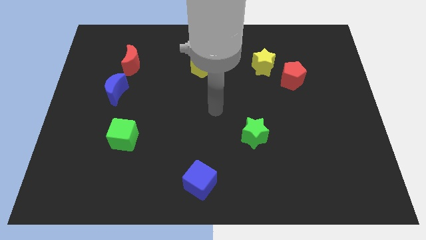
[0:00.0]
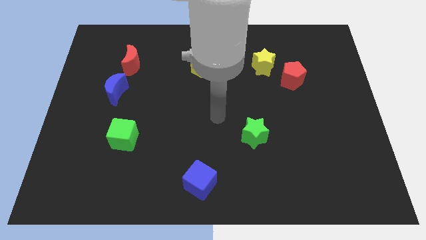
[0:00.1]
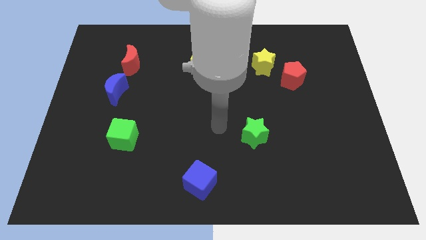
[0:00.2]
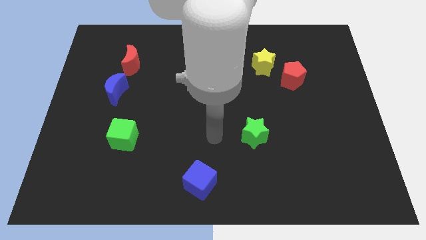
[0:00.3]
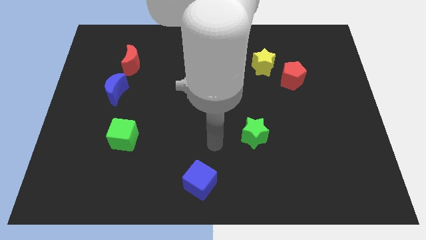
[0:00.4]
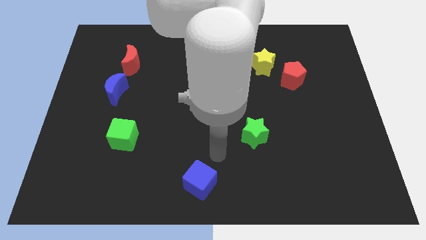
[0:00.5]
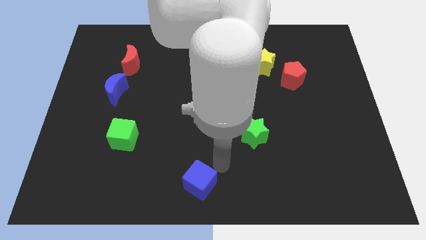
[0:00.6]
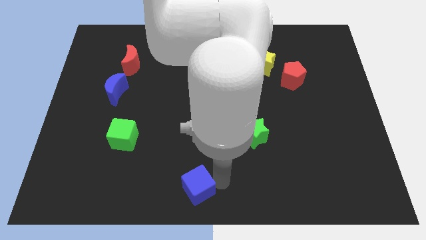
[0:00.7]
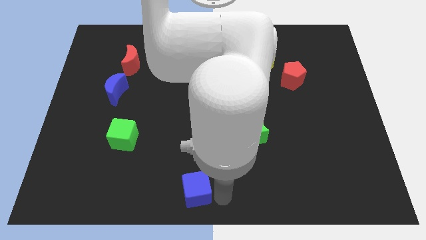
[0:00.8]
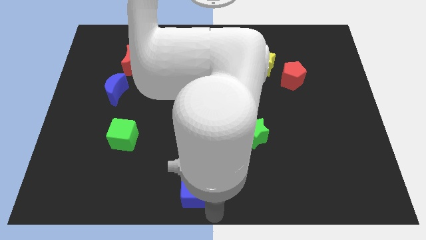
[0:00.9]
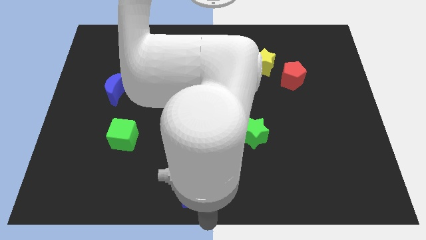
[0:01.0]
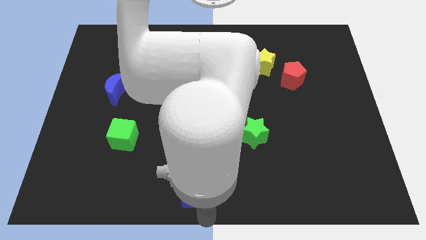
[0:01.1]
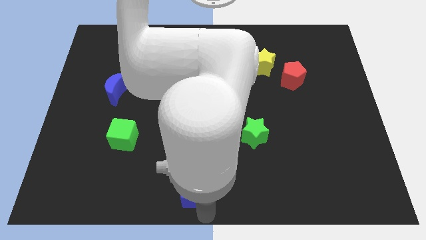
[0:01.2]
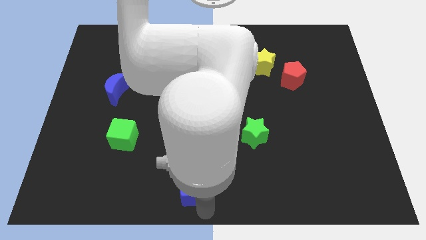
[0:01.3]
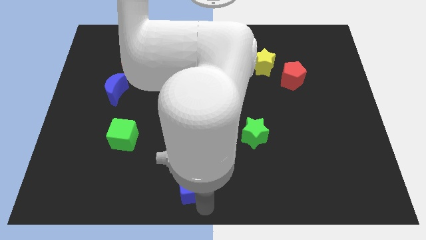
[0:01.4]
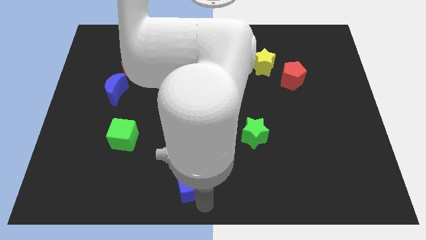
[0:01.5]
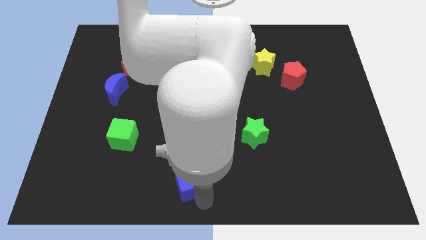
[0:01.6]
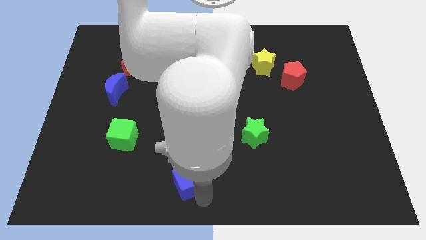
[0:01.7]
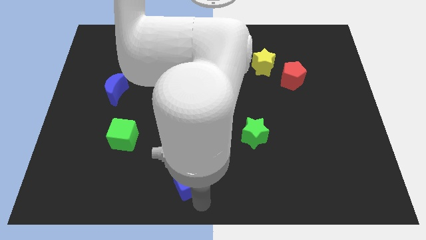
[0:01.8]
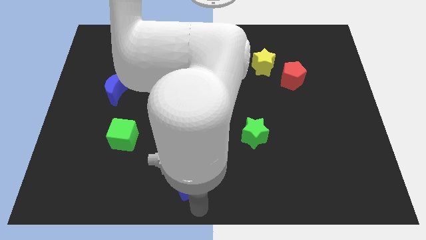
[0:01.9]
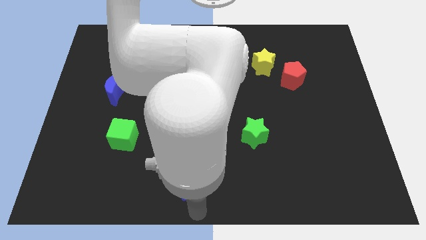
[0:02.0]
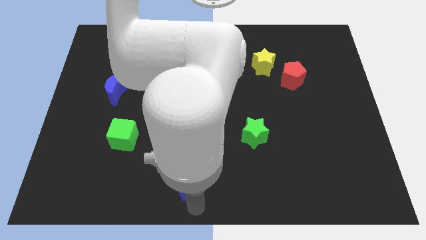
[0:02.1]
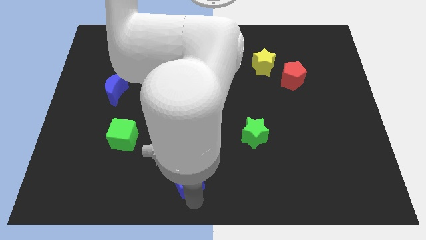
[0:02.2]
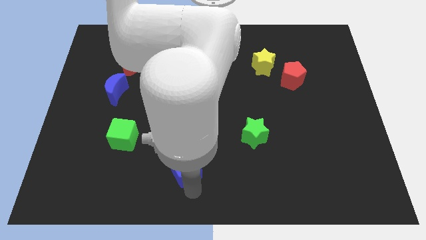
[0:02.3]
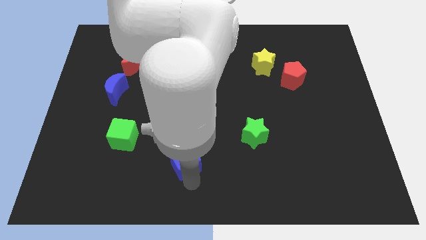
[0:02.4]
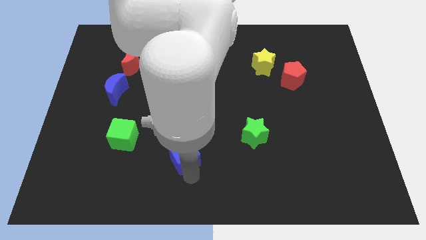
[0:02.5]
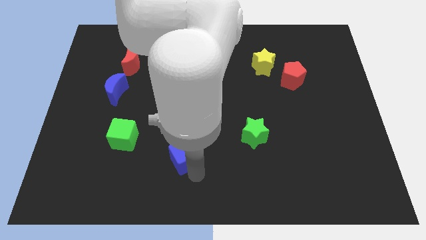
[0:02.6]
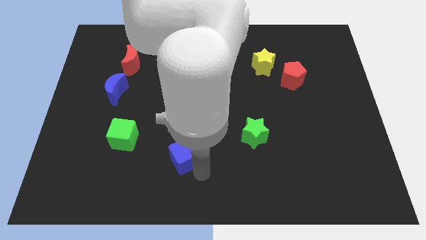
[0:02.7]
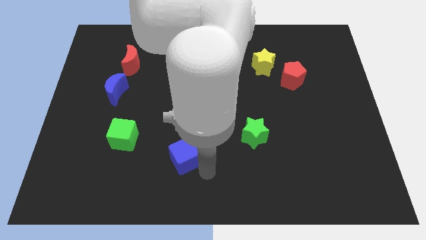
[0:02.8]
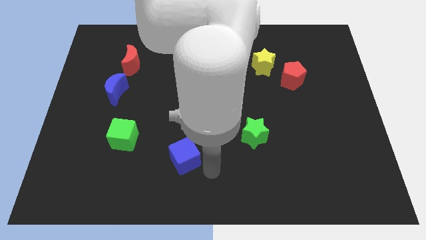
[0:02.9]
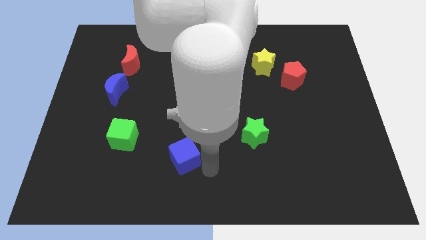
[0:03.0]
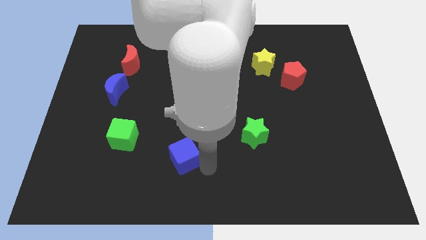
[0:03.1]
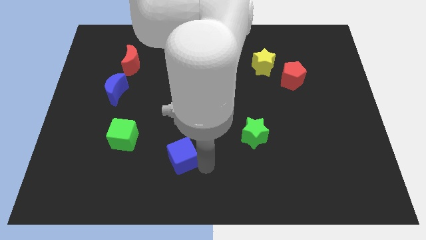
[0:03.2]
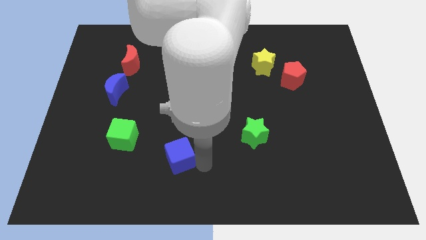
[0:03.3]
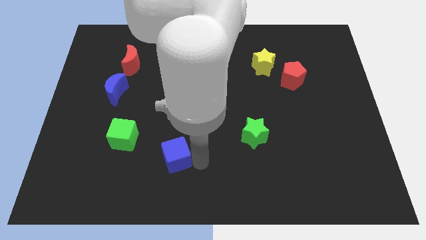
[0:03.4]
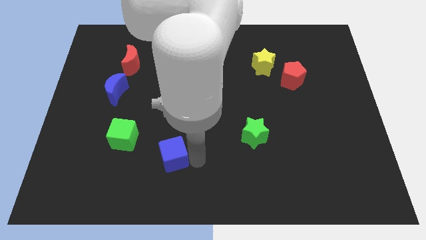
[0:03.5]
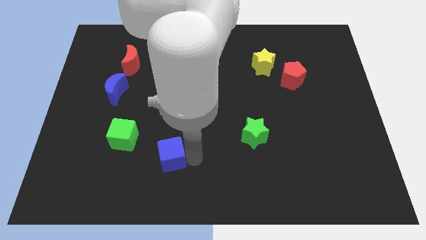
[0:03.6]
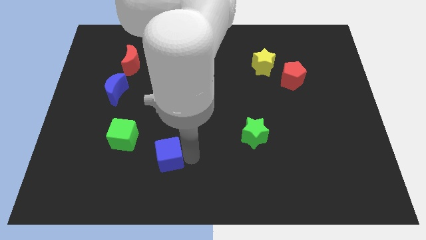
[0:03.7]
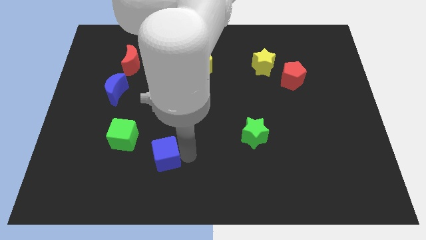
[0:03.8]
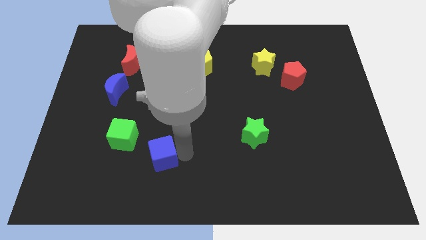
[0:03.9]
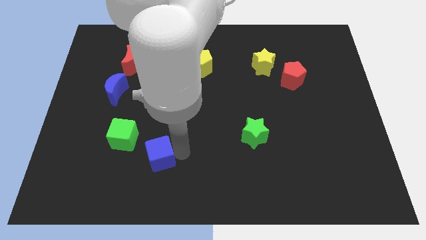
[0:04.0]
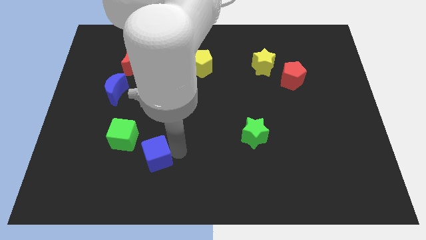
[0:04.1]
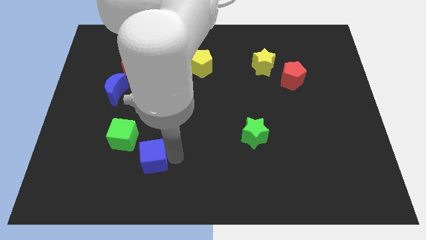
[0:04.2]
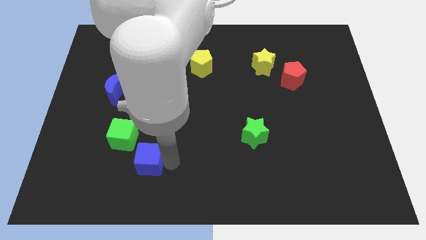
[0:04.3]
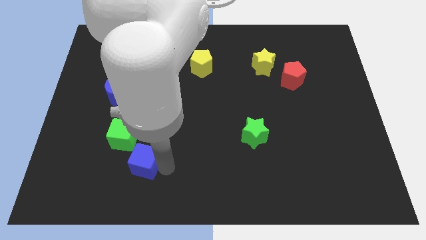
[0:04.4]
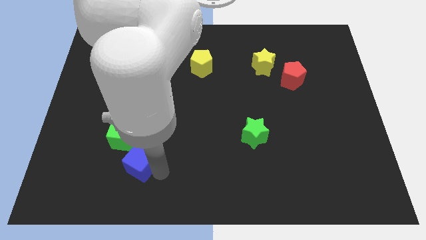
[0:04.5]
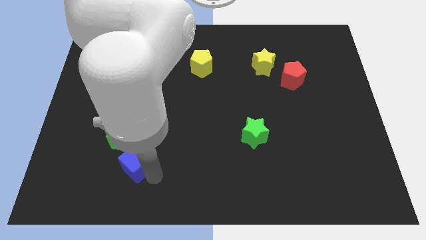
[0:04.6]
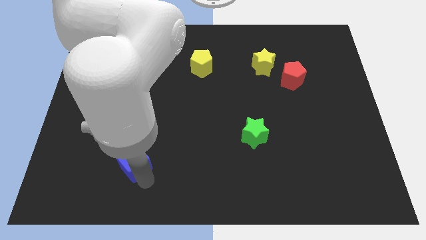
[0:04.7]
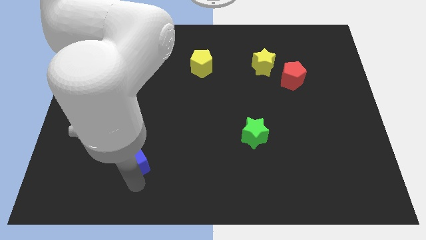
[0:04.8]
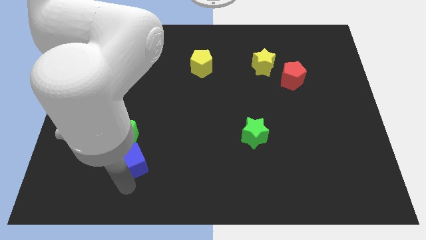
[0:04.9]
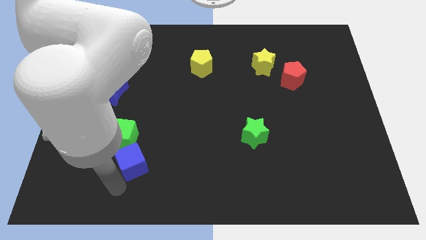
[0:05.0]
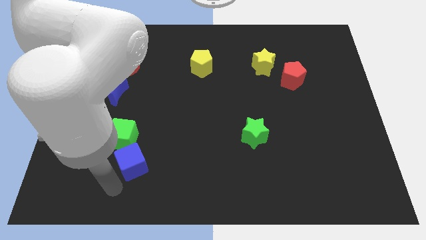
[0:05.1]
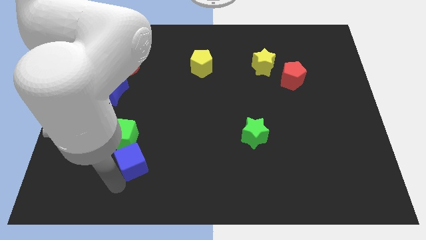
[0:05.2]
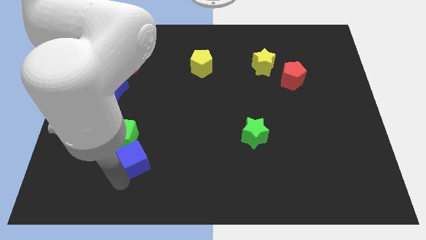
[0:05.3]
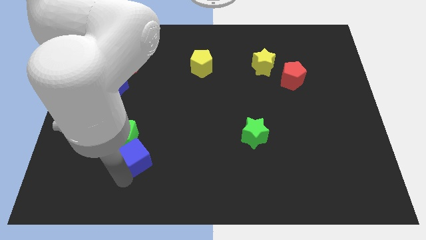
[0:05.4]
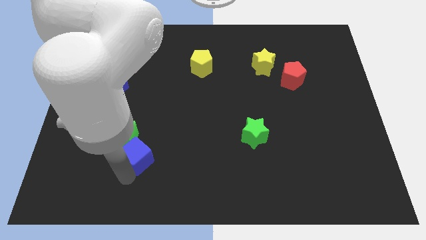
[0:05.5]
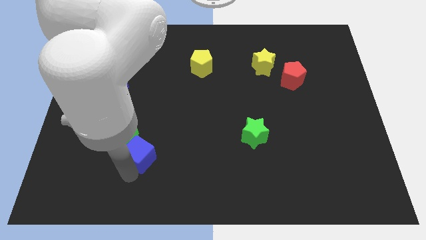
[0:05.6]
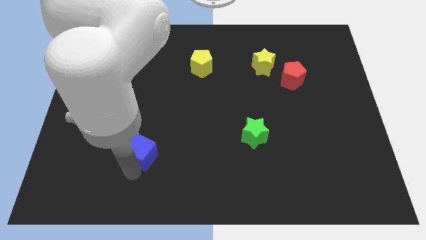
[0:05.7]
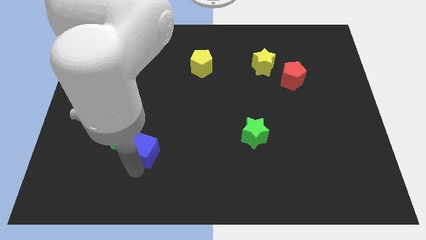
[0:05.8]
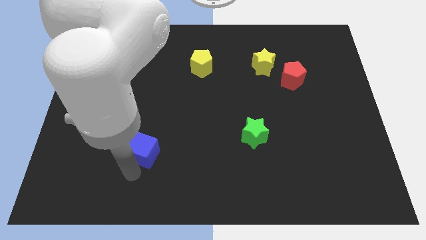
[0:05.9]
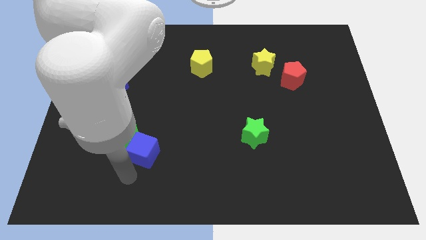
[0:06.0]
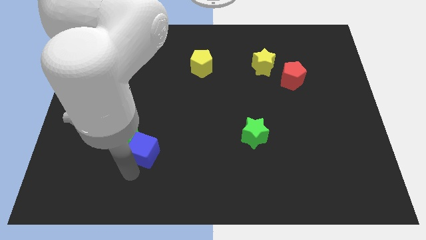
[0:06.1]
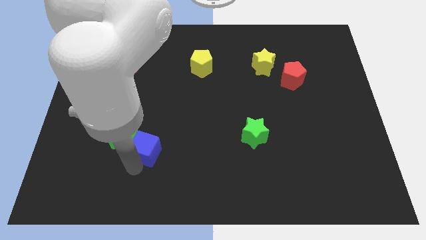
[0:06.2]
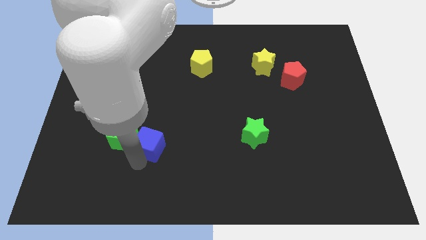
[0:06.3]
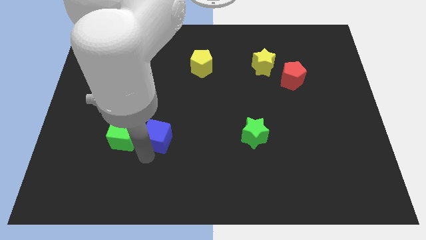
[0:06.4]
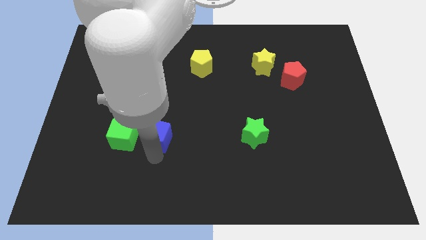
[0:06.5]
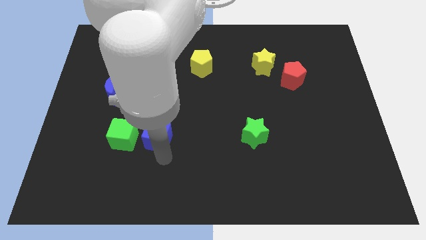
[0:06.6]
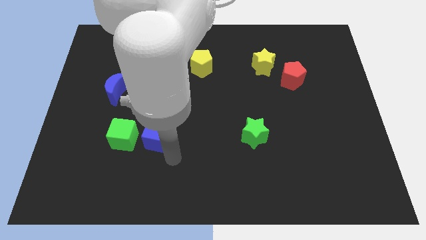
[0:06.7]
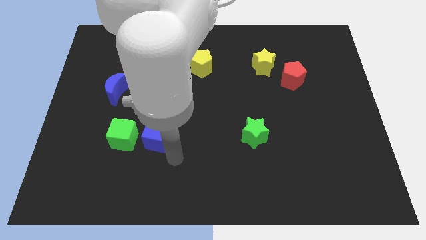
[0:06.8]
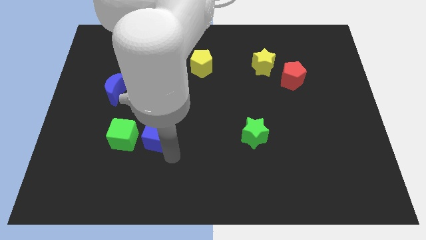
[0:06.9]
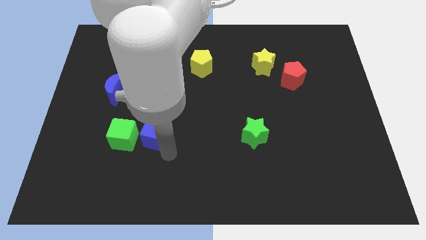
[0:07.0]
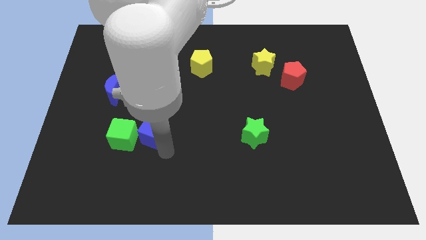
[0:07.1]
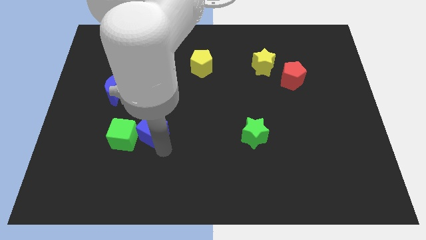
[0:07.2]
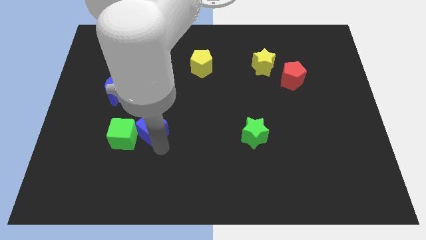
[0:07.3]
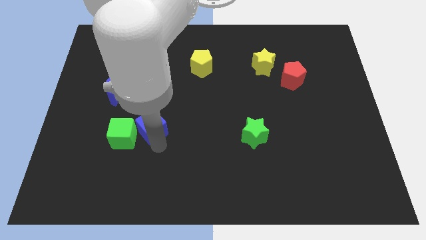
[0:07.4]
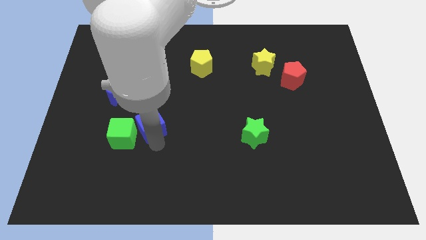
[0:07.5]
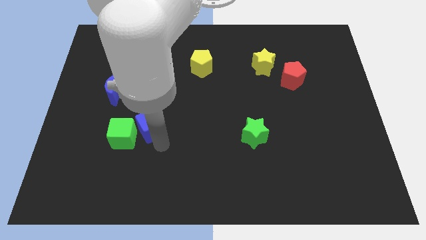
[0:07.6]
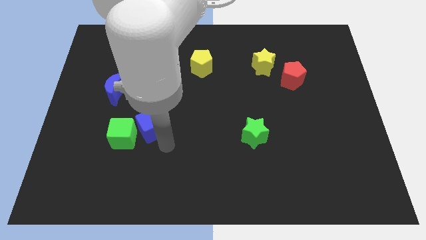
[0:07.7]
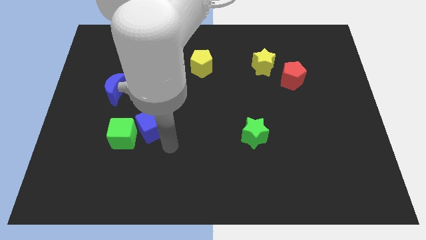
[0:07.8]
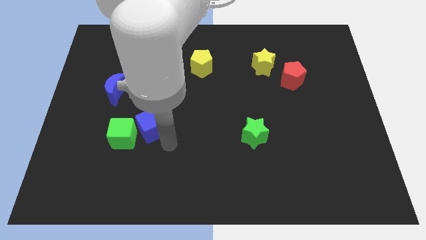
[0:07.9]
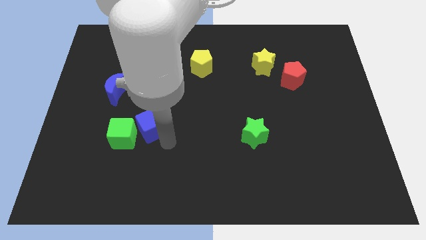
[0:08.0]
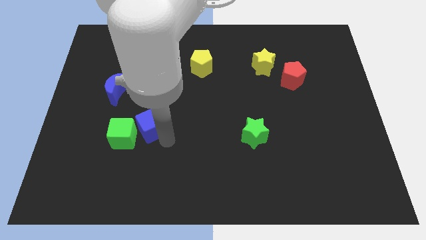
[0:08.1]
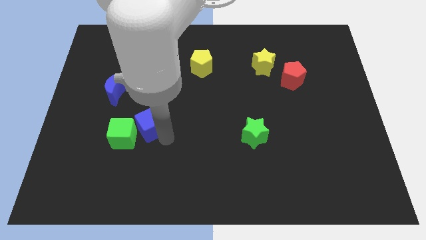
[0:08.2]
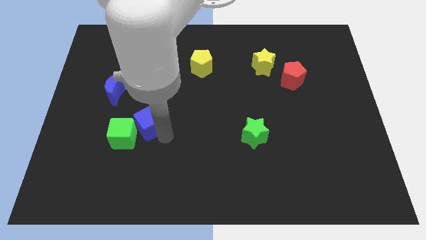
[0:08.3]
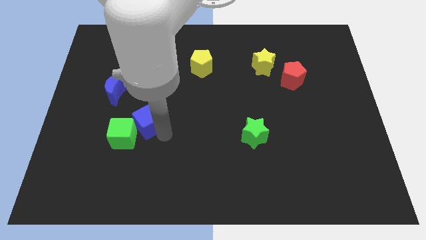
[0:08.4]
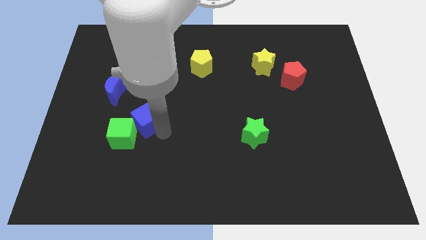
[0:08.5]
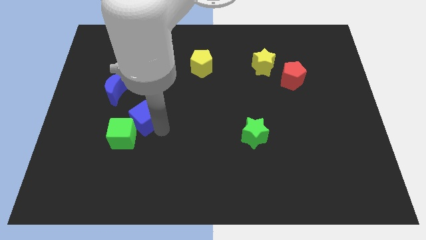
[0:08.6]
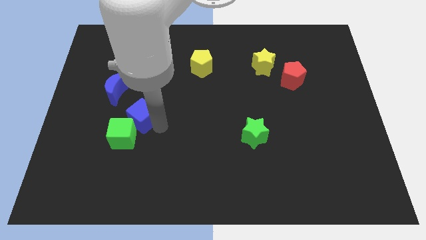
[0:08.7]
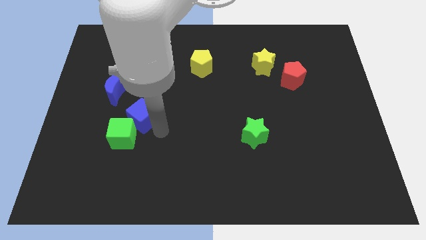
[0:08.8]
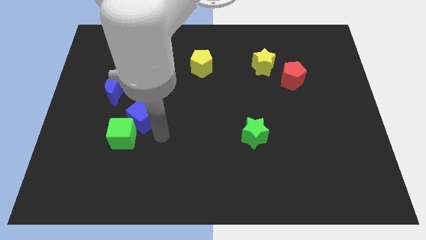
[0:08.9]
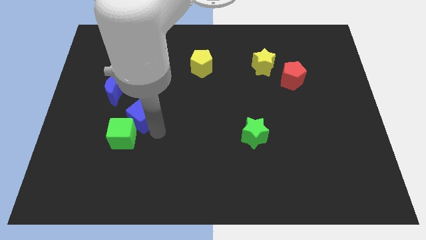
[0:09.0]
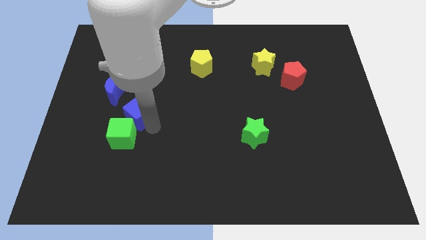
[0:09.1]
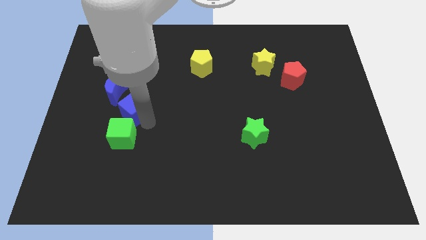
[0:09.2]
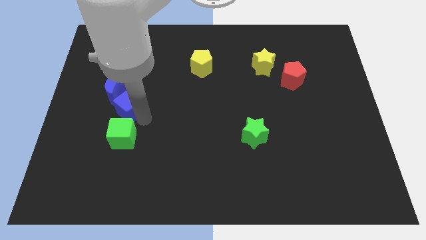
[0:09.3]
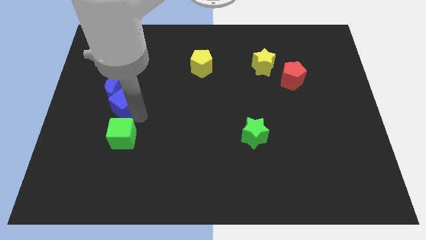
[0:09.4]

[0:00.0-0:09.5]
move the blue cube close to the blue moon
